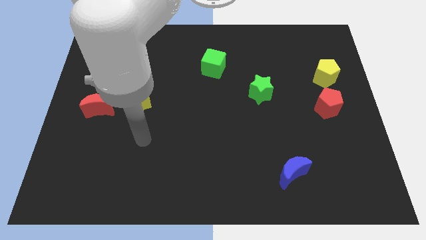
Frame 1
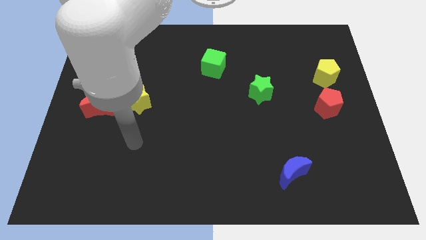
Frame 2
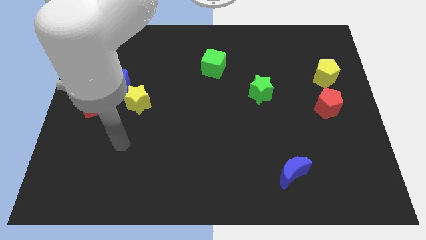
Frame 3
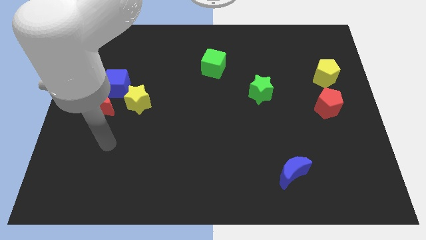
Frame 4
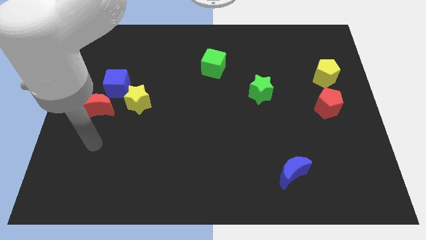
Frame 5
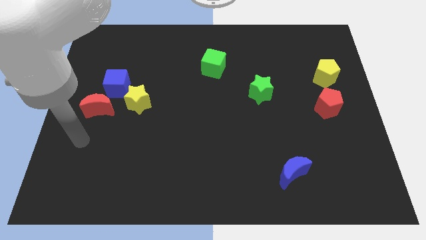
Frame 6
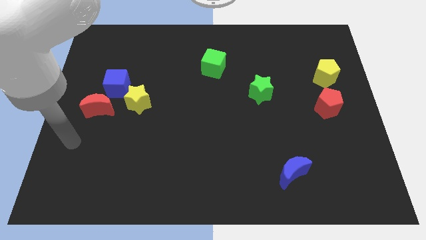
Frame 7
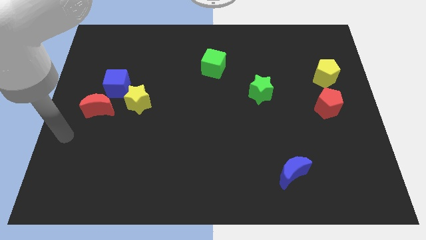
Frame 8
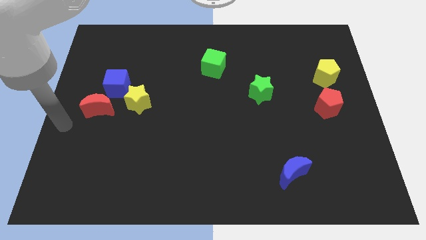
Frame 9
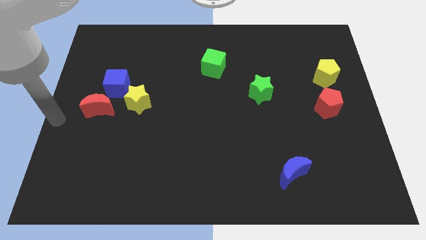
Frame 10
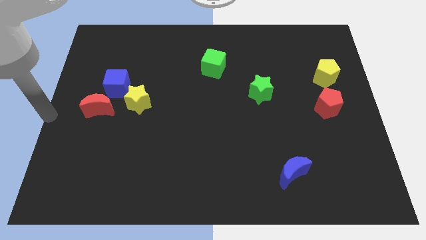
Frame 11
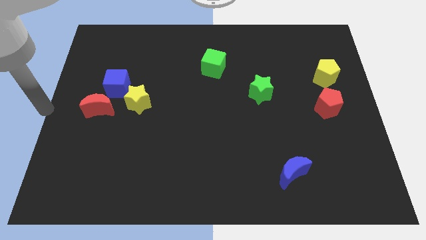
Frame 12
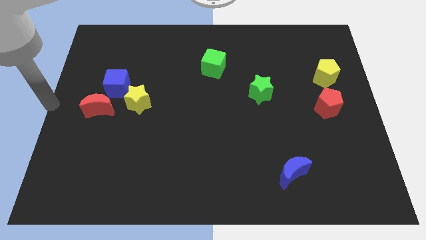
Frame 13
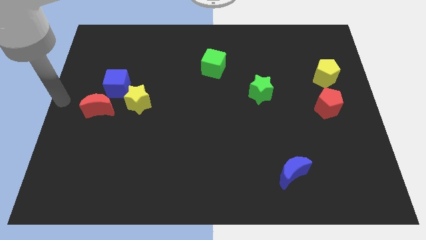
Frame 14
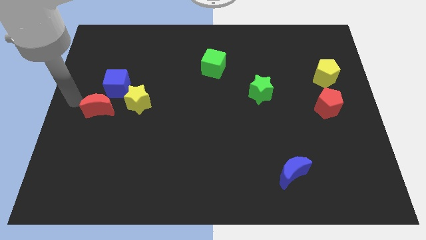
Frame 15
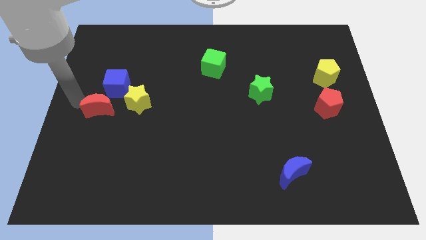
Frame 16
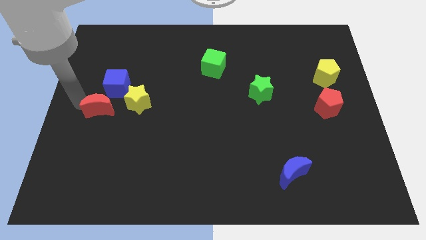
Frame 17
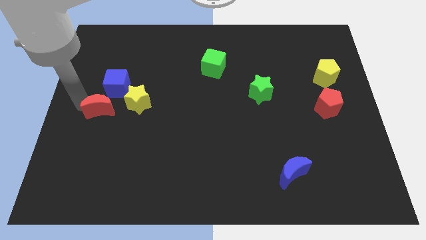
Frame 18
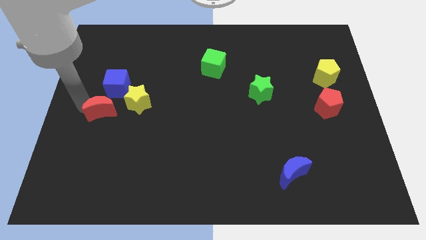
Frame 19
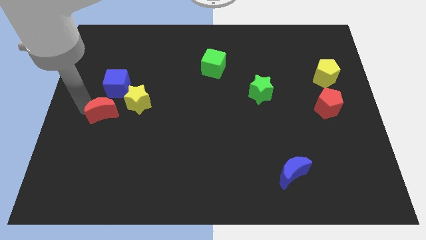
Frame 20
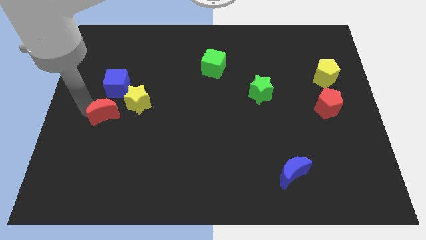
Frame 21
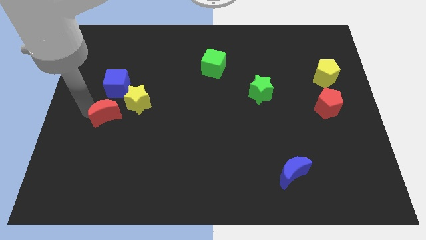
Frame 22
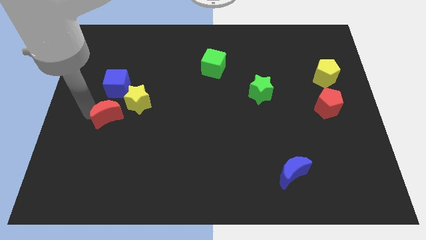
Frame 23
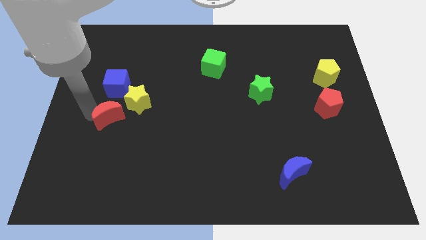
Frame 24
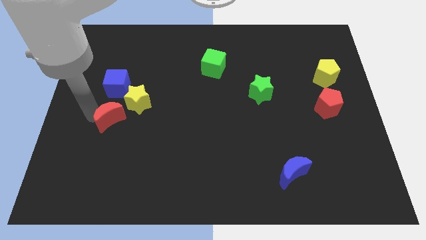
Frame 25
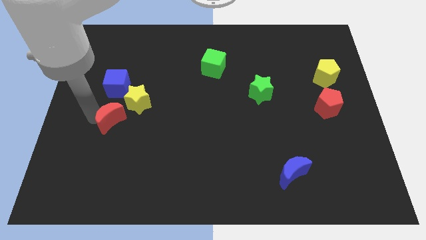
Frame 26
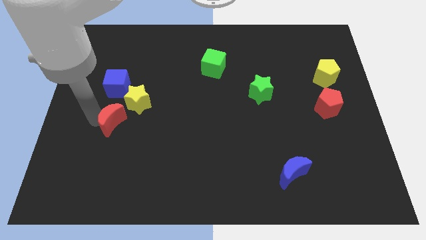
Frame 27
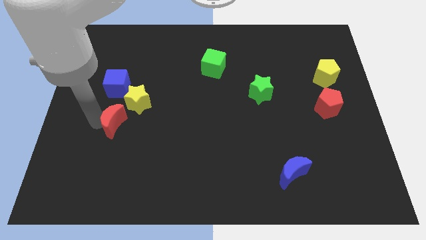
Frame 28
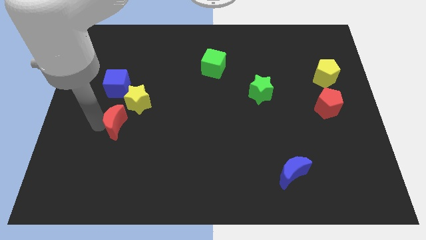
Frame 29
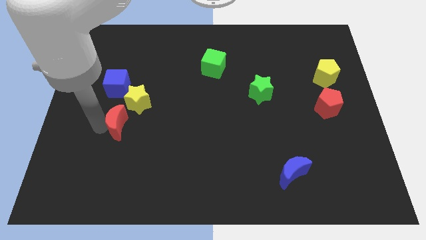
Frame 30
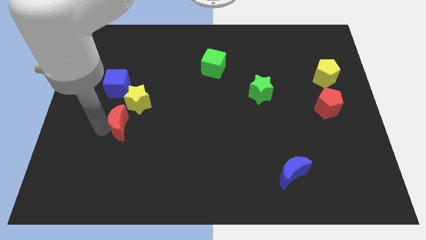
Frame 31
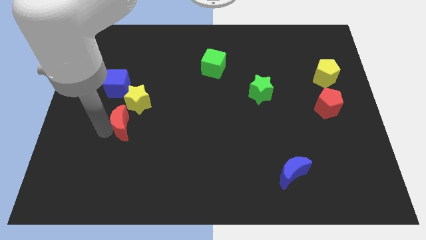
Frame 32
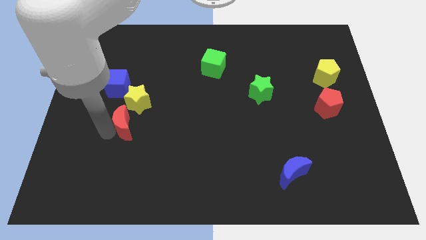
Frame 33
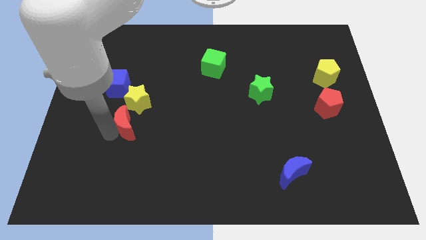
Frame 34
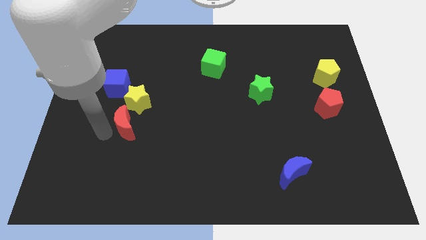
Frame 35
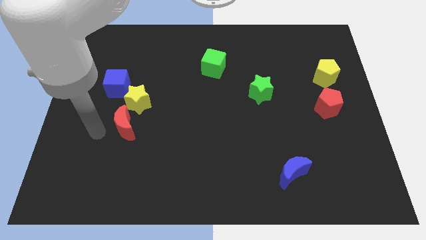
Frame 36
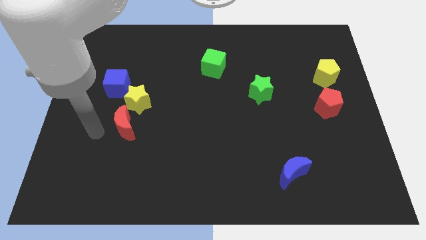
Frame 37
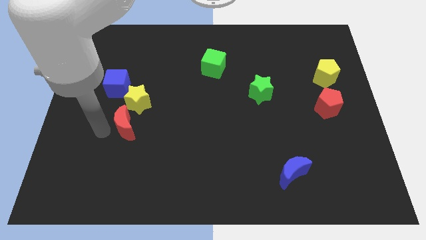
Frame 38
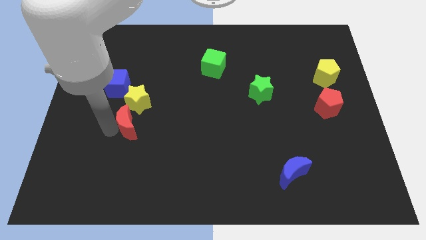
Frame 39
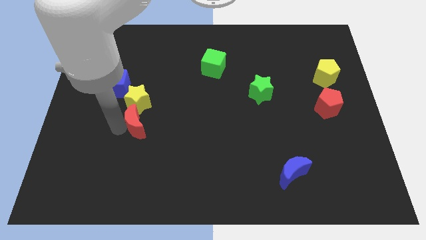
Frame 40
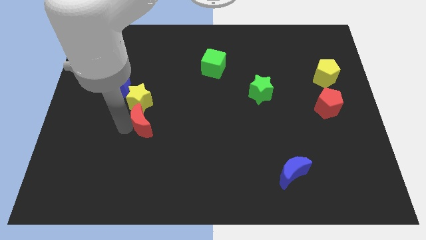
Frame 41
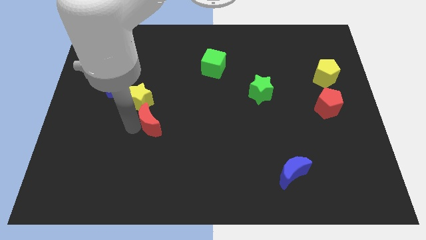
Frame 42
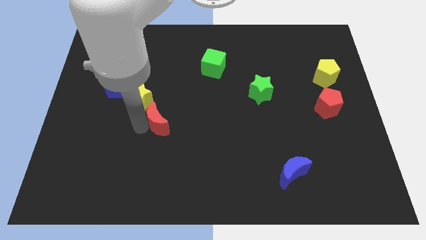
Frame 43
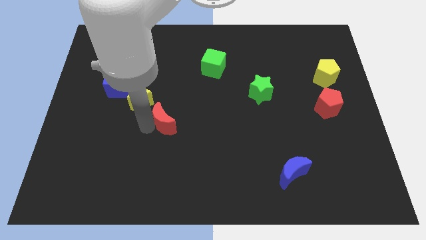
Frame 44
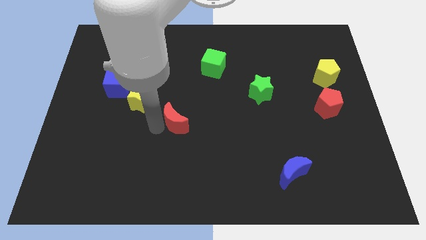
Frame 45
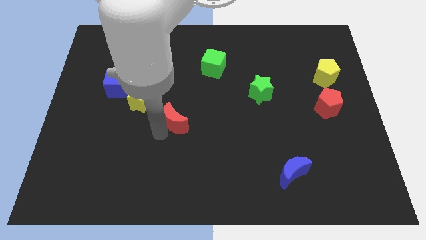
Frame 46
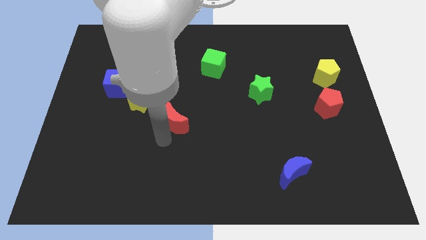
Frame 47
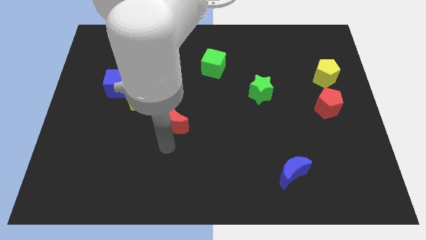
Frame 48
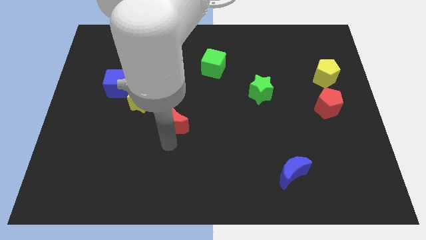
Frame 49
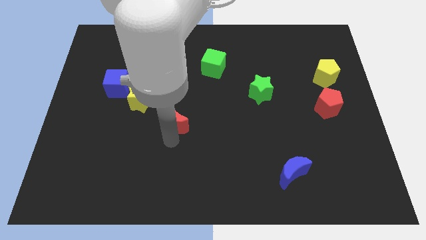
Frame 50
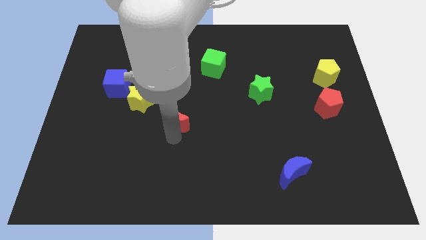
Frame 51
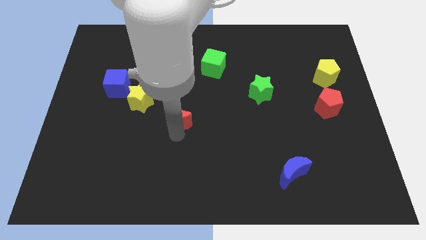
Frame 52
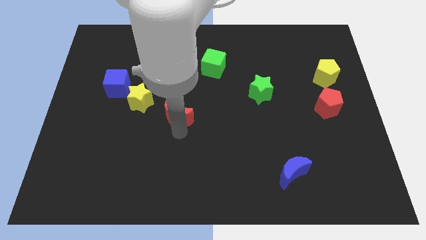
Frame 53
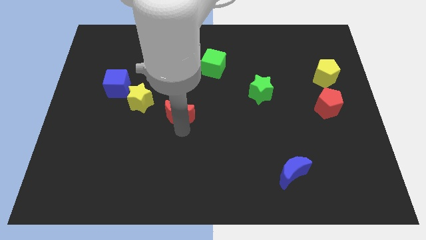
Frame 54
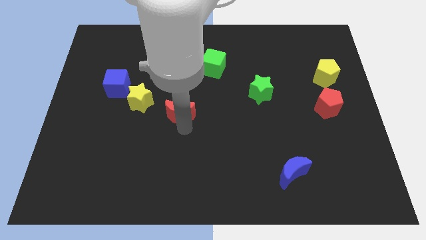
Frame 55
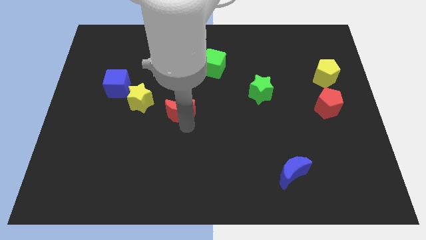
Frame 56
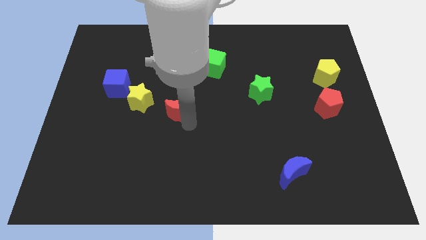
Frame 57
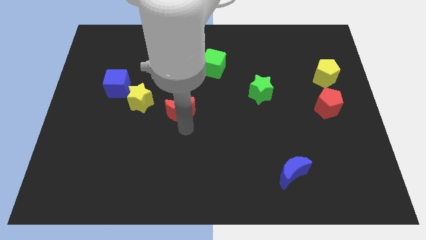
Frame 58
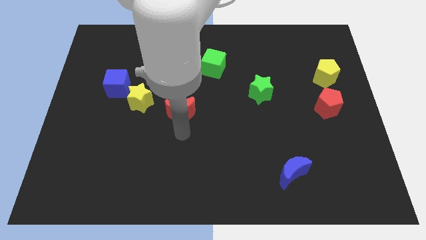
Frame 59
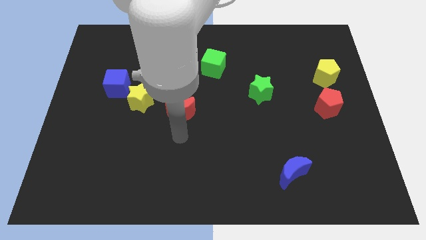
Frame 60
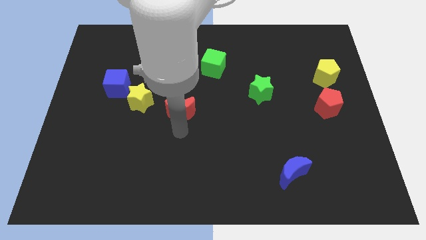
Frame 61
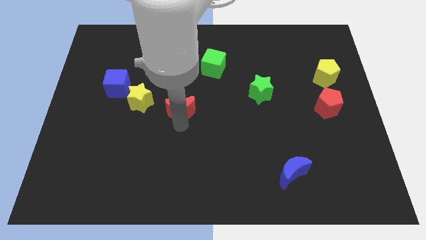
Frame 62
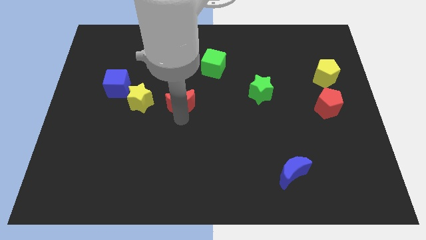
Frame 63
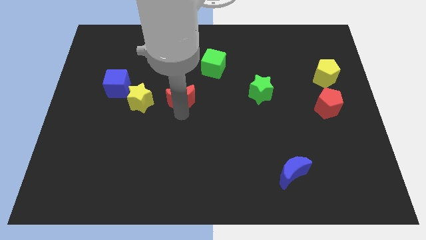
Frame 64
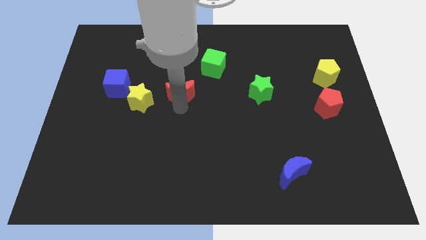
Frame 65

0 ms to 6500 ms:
slide the red moon diagonally down and to the left of the green cube

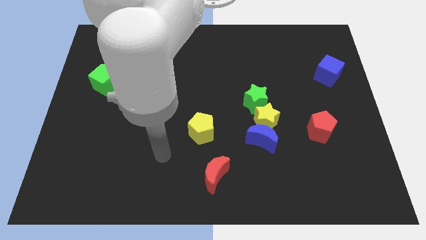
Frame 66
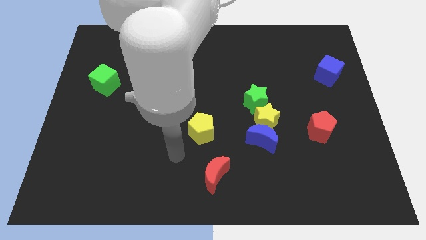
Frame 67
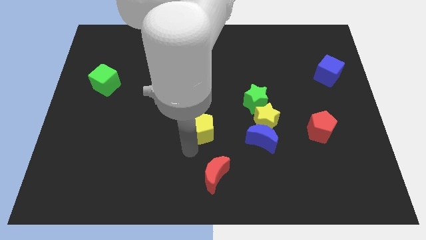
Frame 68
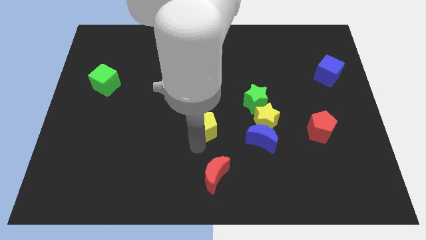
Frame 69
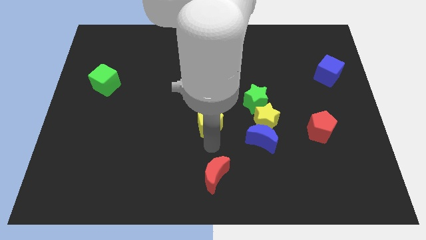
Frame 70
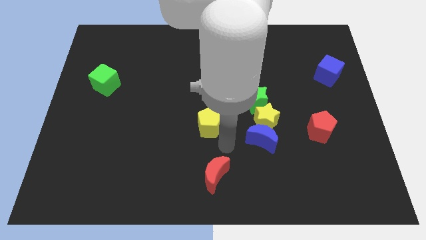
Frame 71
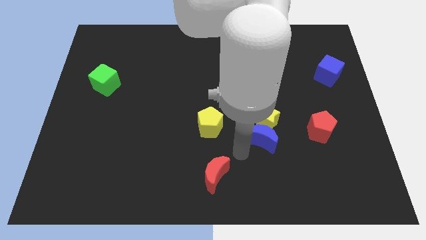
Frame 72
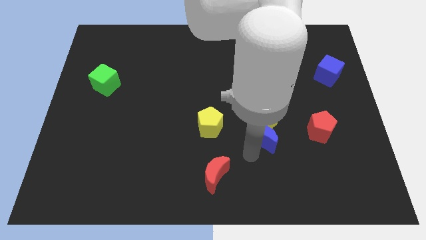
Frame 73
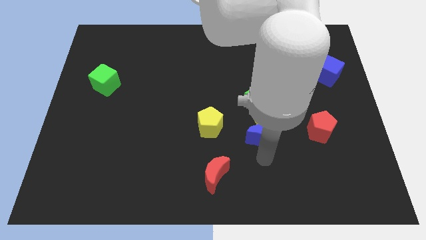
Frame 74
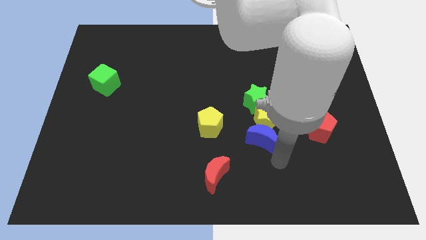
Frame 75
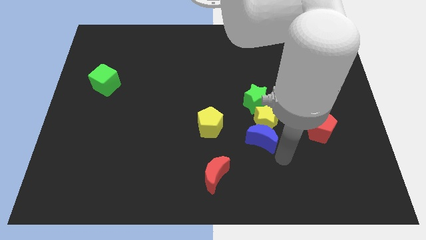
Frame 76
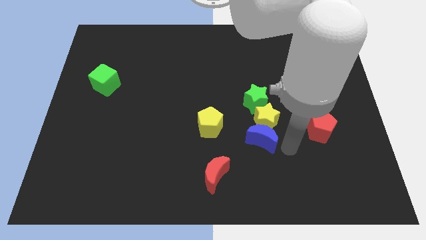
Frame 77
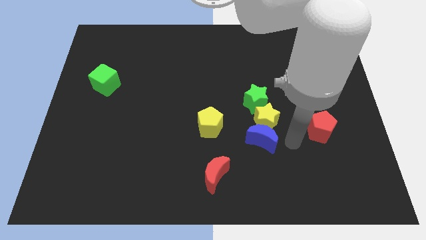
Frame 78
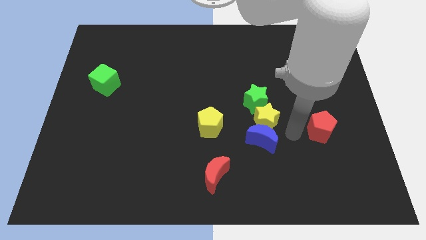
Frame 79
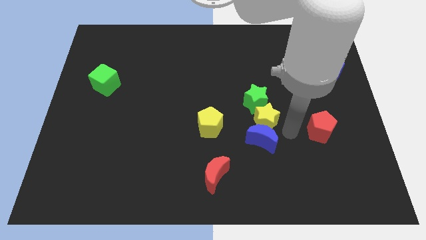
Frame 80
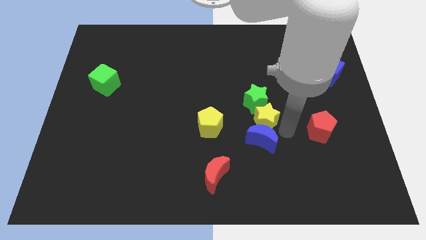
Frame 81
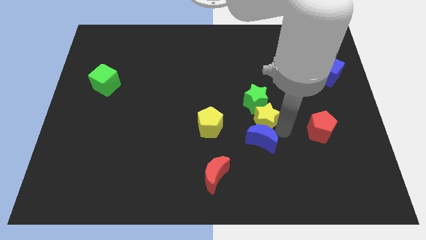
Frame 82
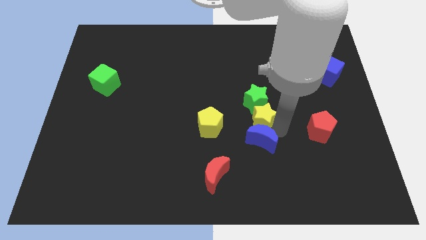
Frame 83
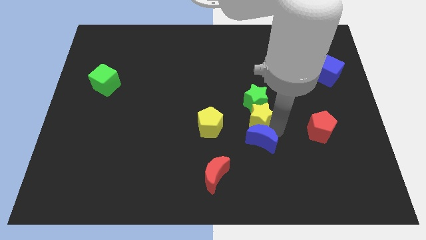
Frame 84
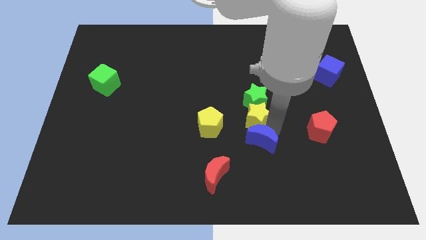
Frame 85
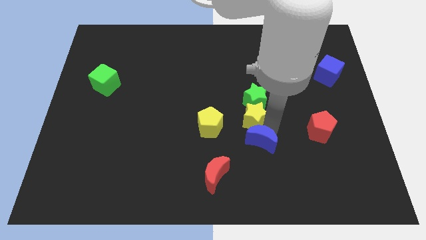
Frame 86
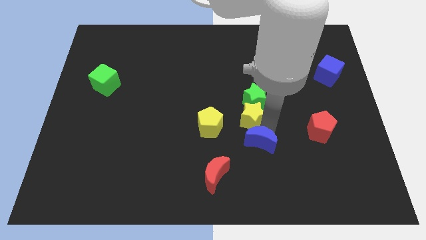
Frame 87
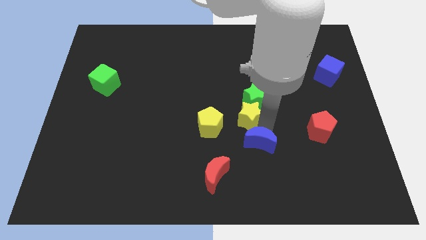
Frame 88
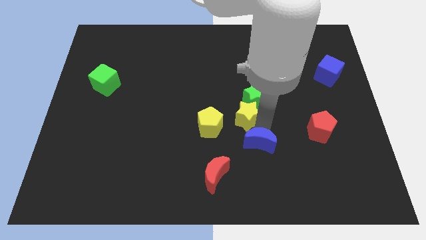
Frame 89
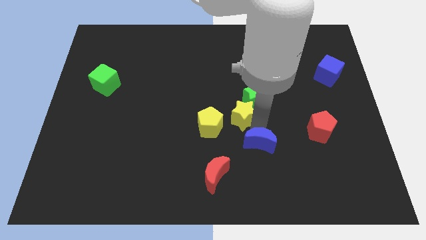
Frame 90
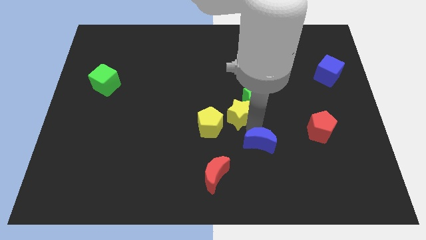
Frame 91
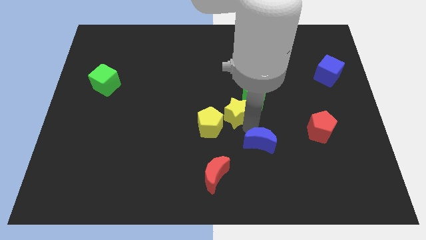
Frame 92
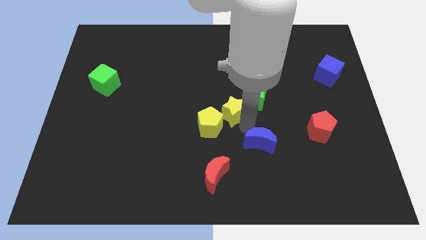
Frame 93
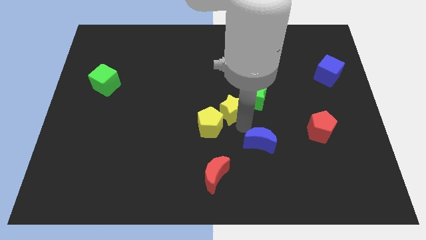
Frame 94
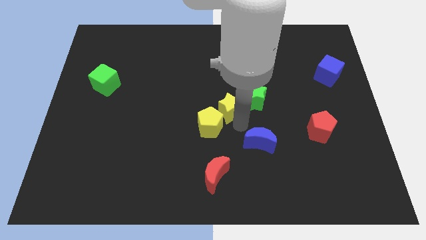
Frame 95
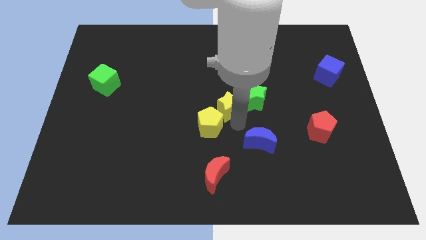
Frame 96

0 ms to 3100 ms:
put the yellow star to the top of the yellow pentagon
